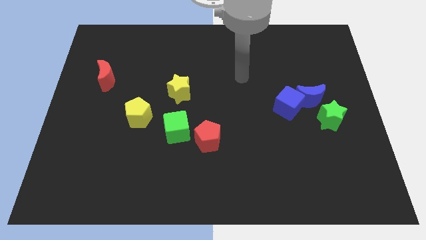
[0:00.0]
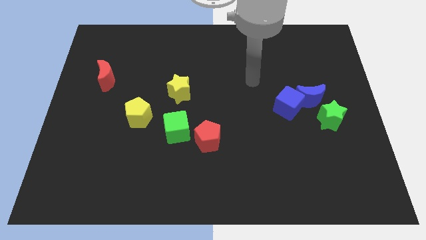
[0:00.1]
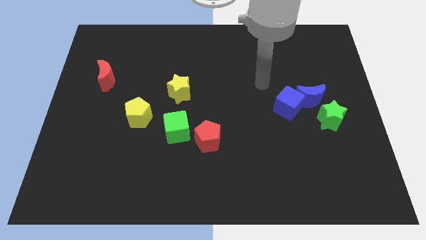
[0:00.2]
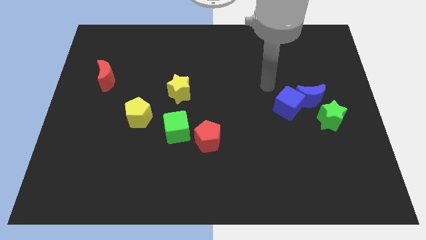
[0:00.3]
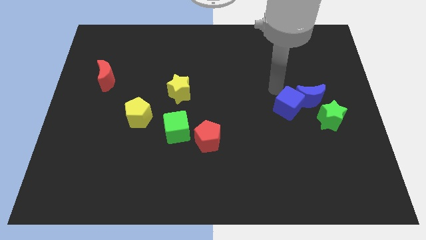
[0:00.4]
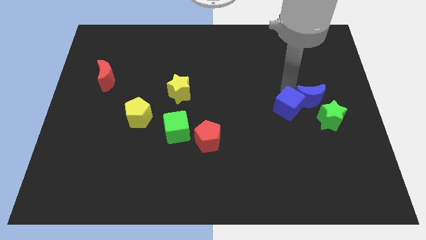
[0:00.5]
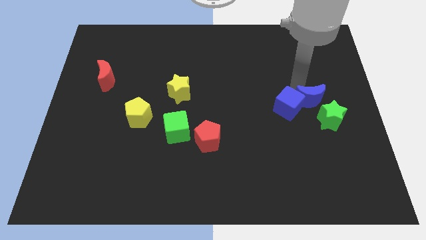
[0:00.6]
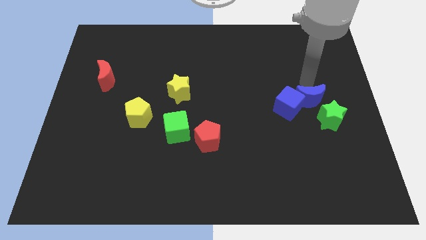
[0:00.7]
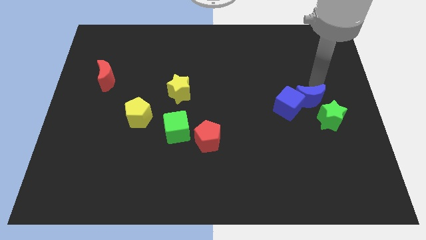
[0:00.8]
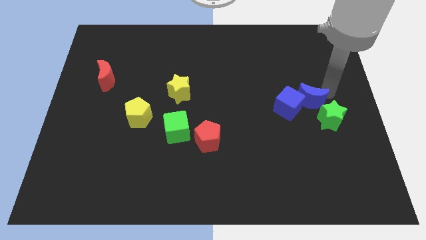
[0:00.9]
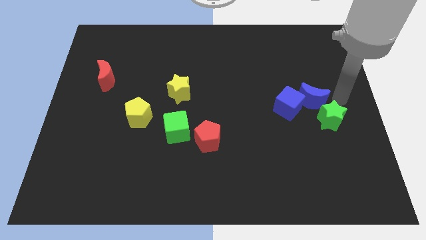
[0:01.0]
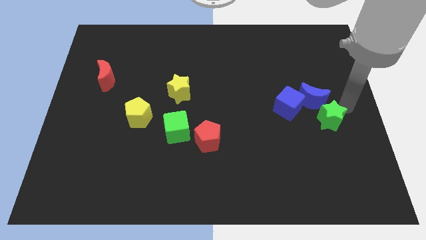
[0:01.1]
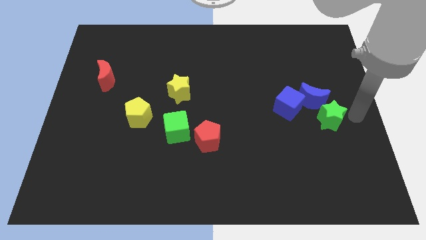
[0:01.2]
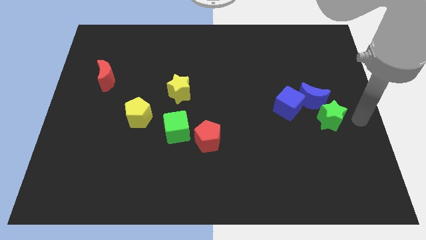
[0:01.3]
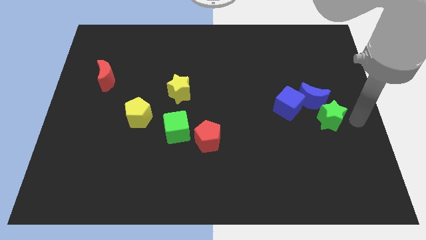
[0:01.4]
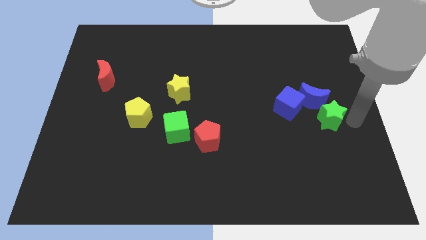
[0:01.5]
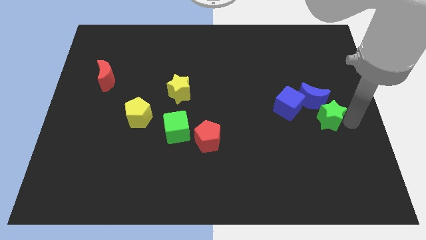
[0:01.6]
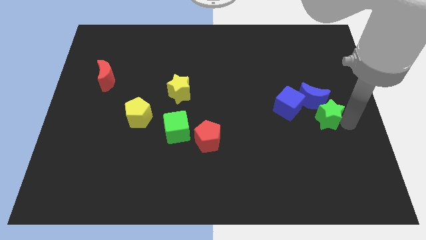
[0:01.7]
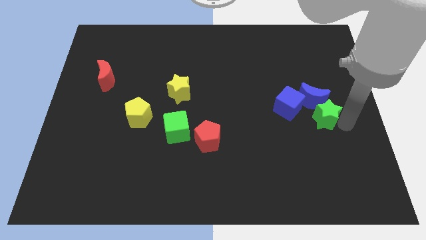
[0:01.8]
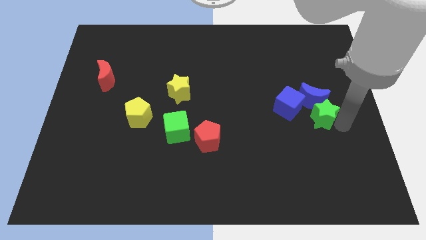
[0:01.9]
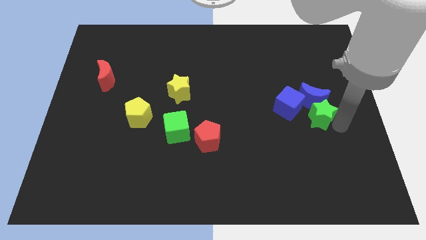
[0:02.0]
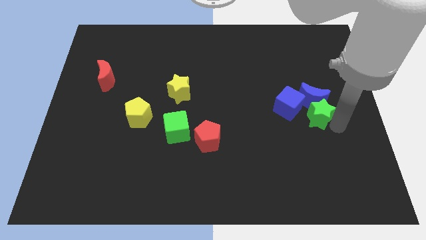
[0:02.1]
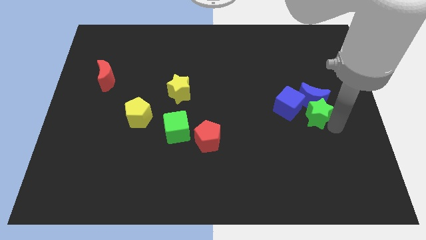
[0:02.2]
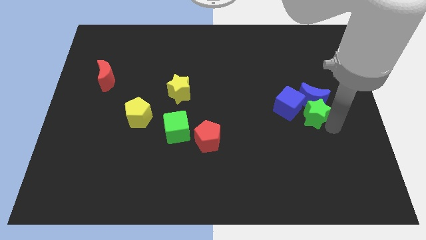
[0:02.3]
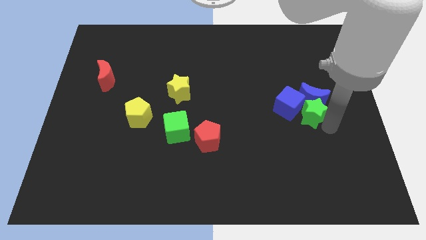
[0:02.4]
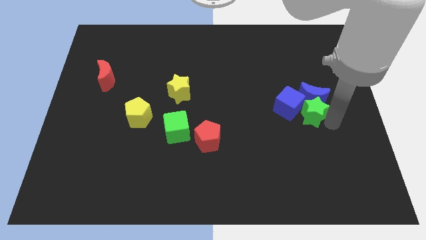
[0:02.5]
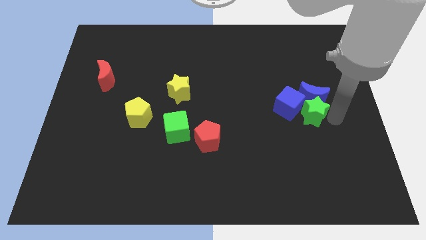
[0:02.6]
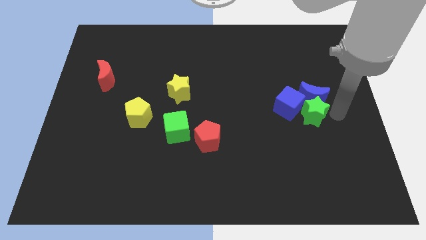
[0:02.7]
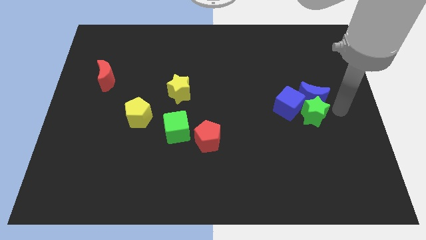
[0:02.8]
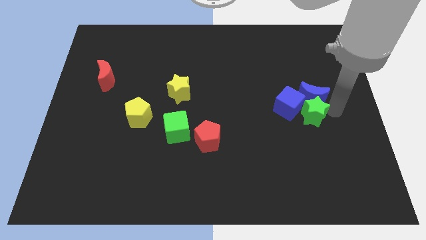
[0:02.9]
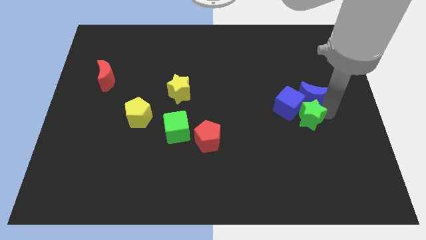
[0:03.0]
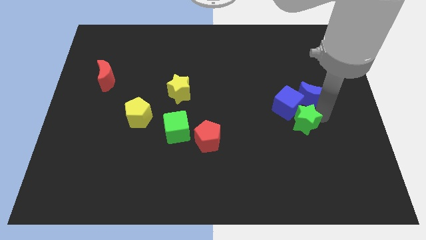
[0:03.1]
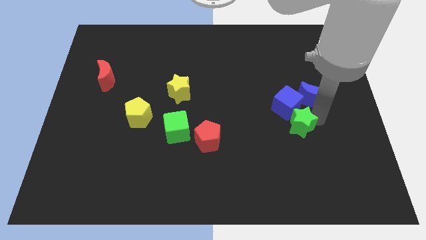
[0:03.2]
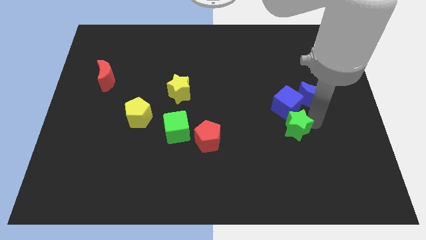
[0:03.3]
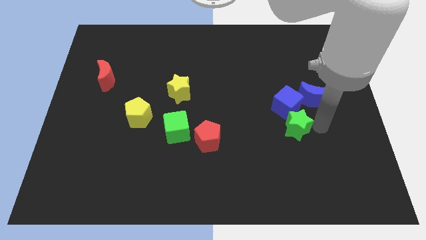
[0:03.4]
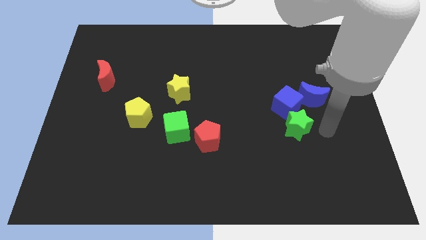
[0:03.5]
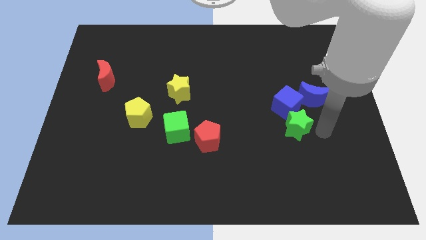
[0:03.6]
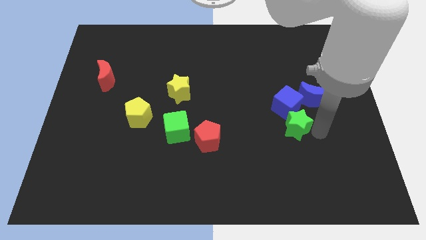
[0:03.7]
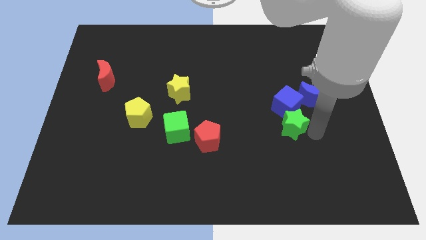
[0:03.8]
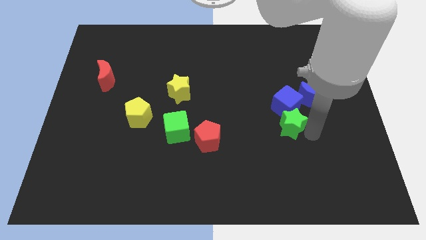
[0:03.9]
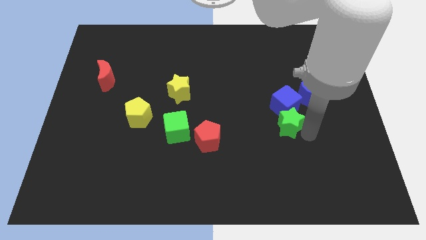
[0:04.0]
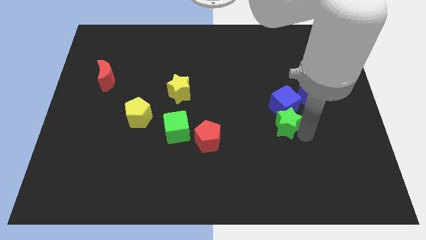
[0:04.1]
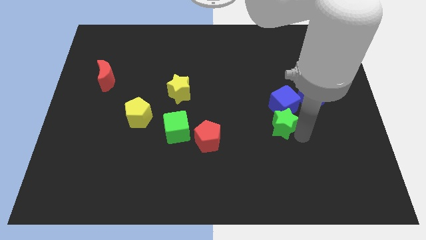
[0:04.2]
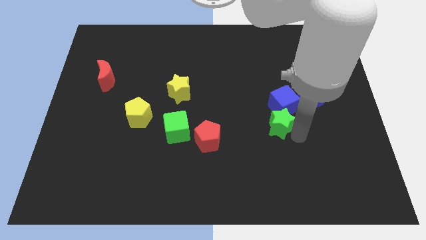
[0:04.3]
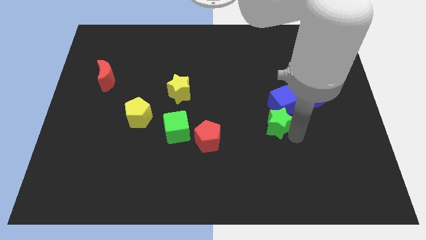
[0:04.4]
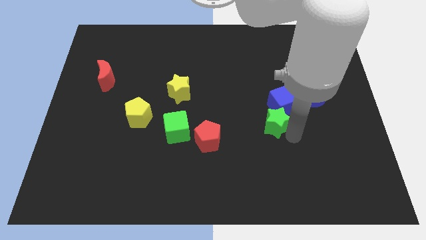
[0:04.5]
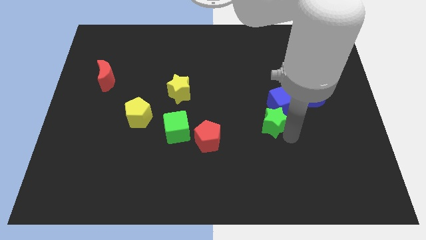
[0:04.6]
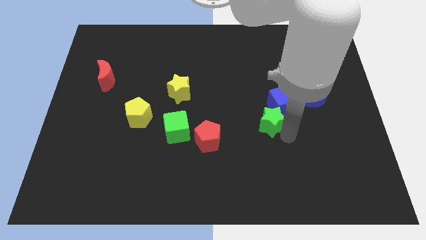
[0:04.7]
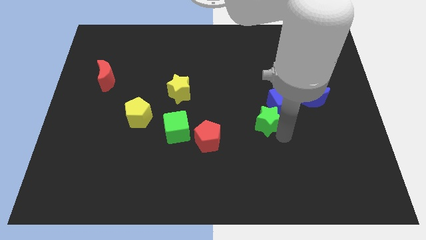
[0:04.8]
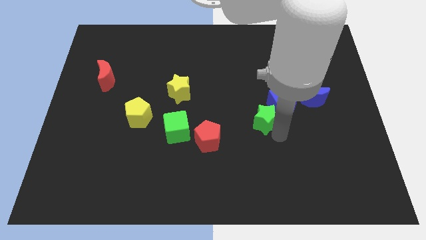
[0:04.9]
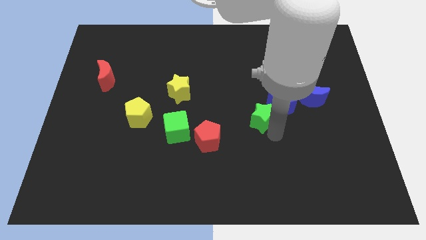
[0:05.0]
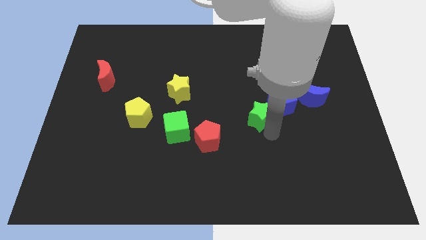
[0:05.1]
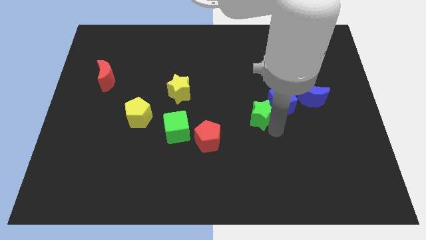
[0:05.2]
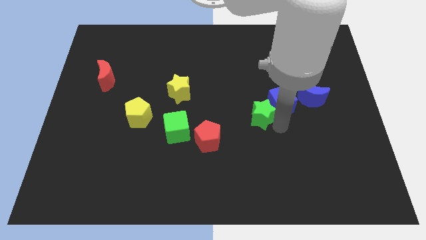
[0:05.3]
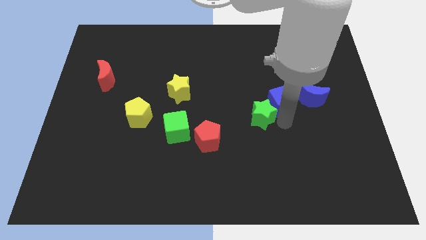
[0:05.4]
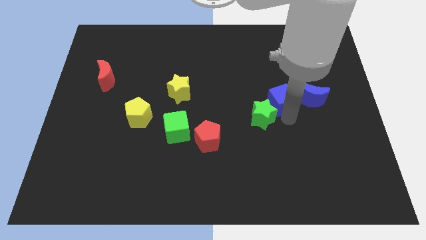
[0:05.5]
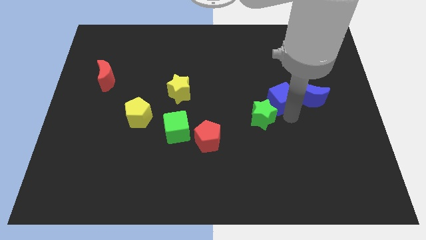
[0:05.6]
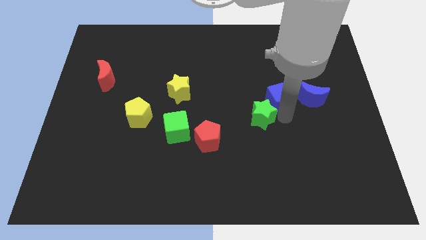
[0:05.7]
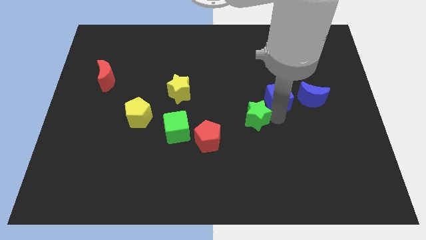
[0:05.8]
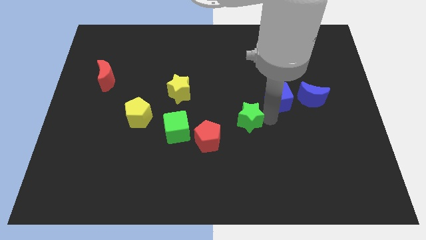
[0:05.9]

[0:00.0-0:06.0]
move the green star to the top right side of the red pentagon

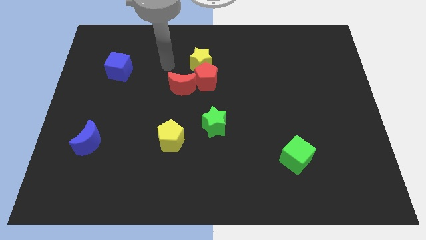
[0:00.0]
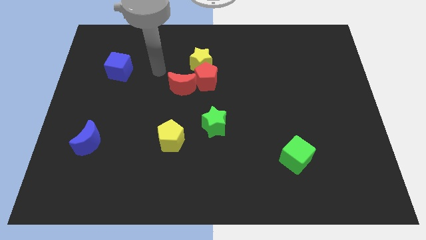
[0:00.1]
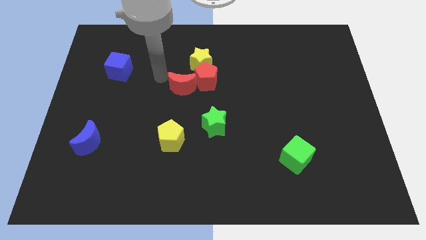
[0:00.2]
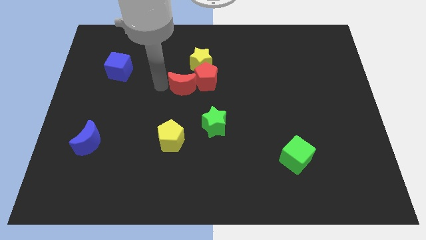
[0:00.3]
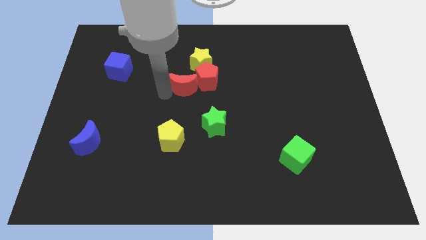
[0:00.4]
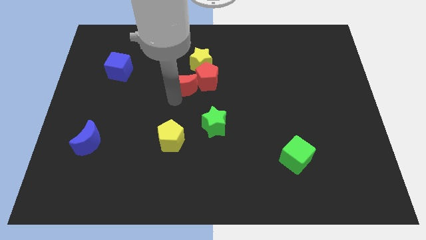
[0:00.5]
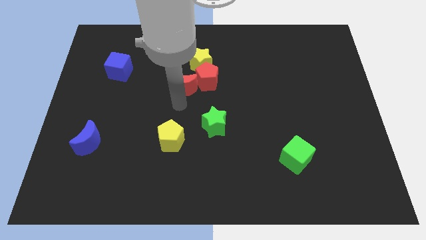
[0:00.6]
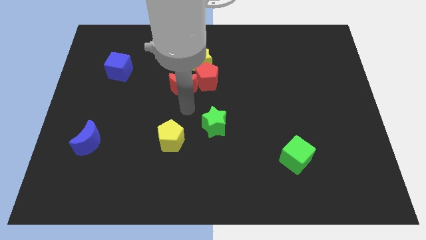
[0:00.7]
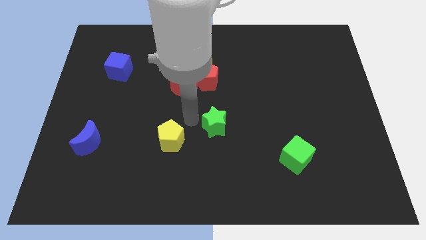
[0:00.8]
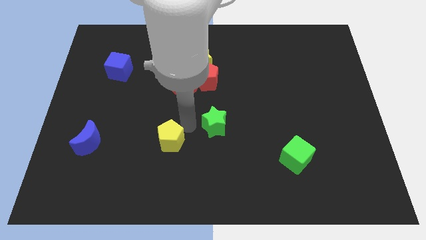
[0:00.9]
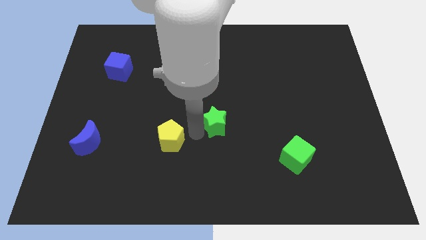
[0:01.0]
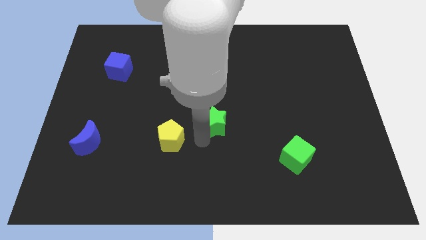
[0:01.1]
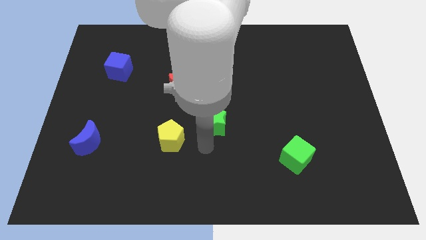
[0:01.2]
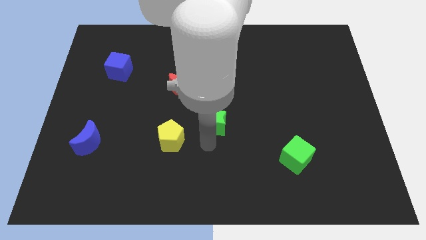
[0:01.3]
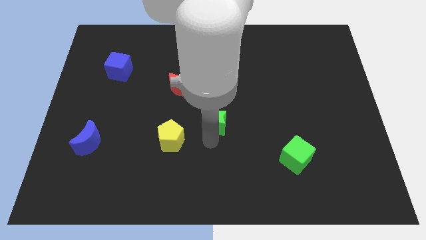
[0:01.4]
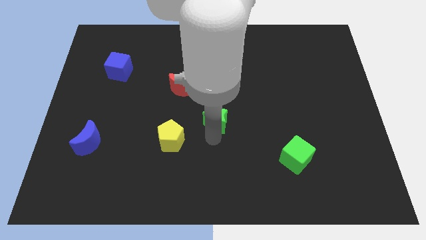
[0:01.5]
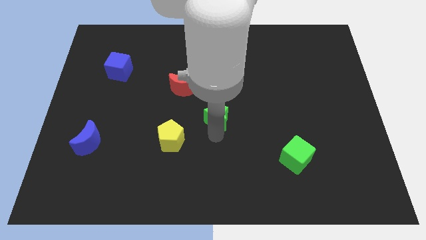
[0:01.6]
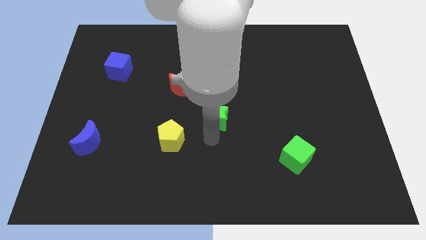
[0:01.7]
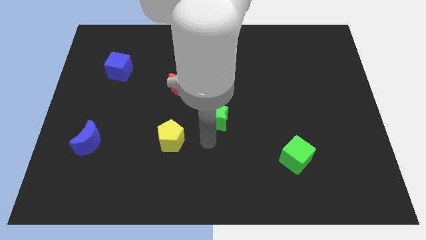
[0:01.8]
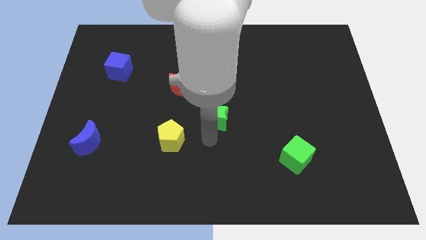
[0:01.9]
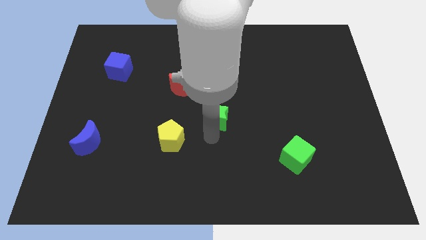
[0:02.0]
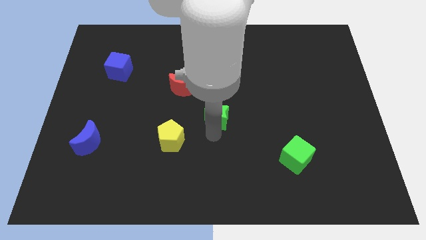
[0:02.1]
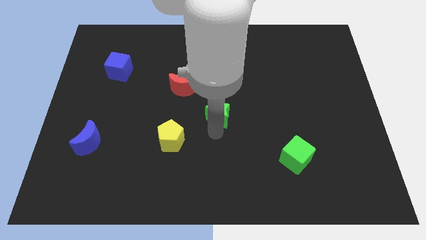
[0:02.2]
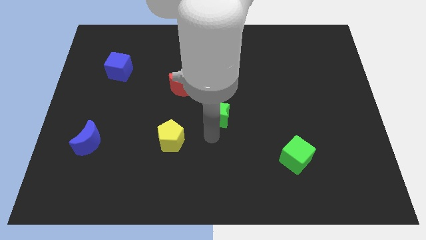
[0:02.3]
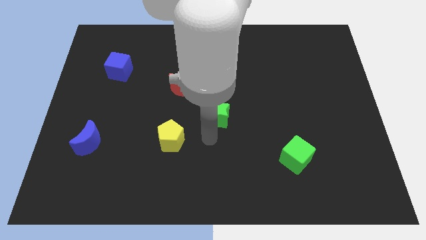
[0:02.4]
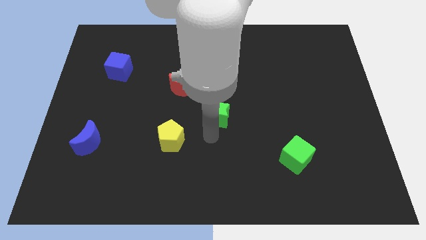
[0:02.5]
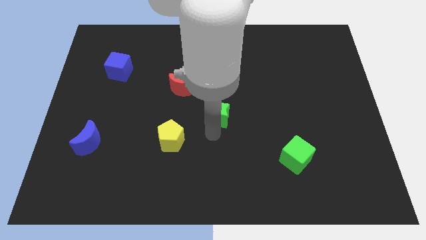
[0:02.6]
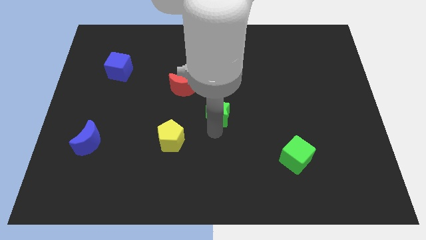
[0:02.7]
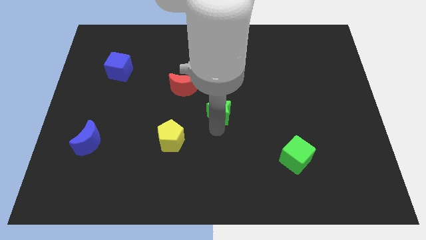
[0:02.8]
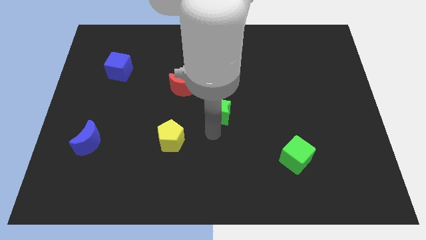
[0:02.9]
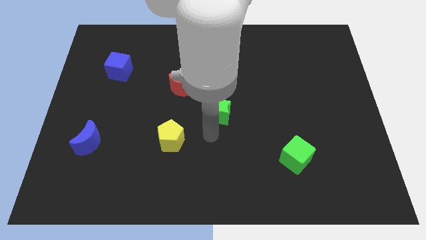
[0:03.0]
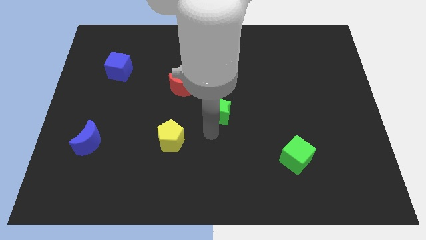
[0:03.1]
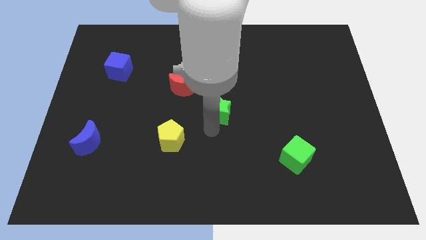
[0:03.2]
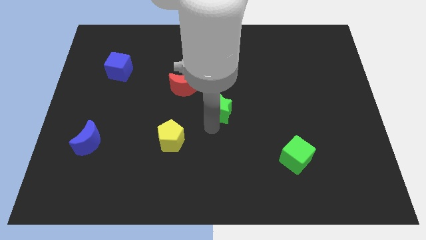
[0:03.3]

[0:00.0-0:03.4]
push the green star to the bottom right side of the red pentagon
